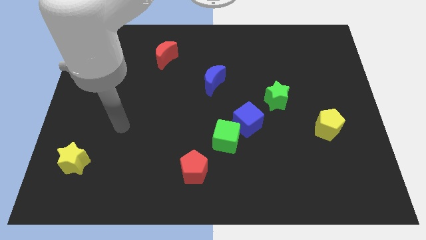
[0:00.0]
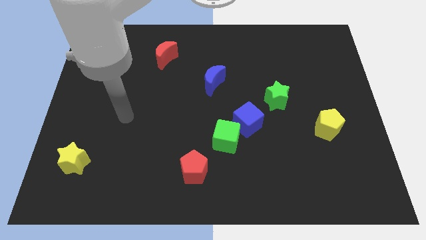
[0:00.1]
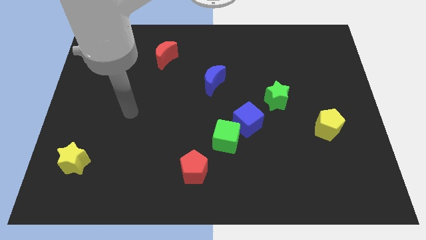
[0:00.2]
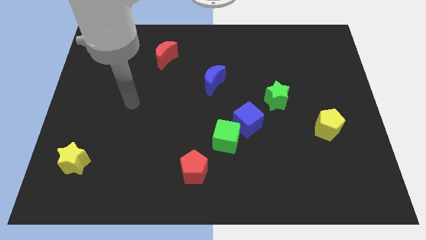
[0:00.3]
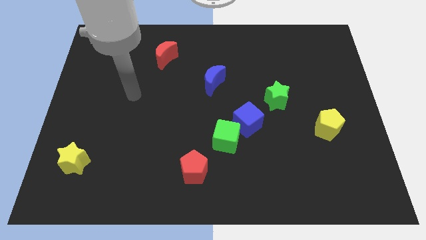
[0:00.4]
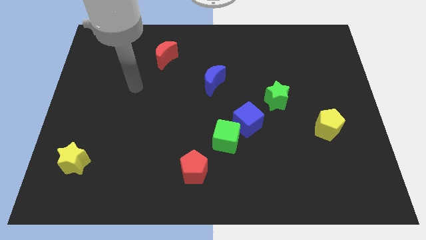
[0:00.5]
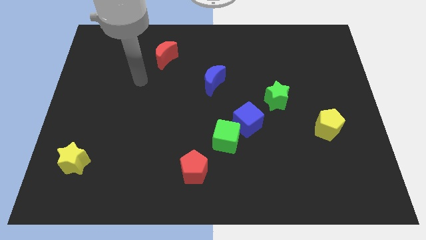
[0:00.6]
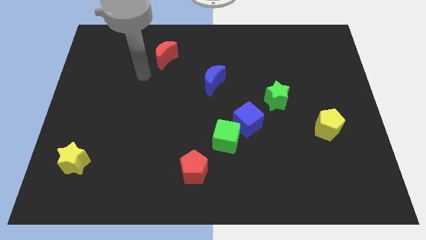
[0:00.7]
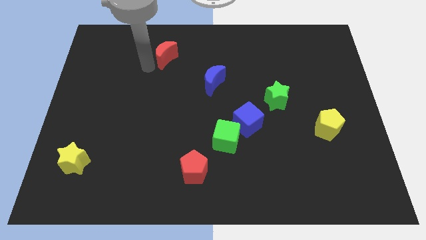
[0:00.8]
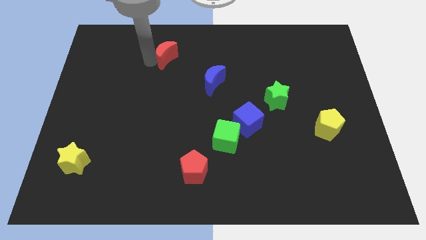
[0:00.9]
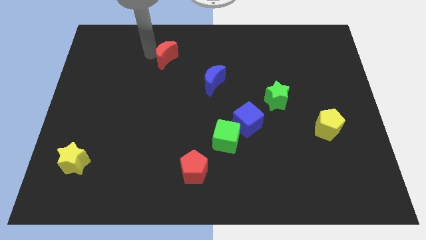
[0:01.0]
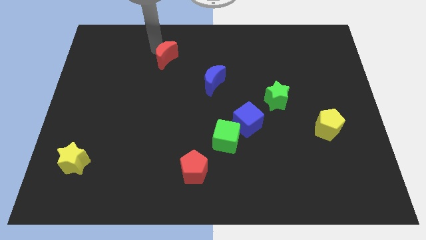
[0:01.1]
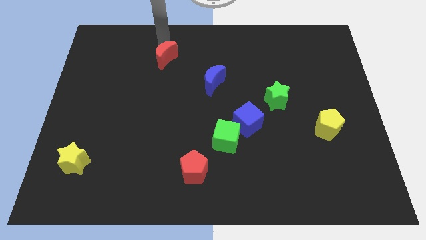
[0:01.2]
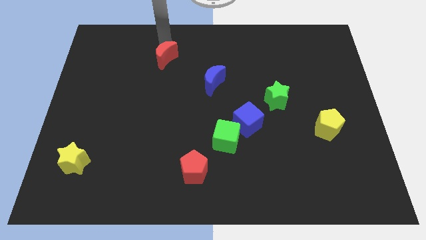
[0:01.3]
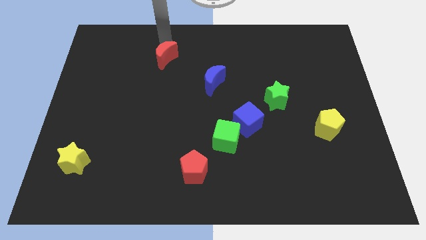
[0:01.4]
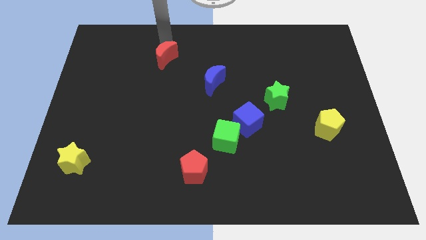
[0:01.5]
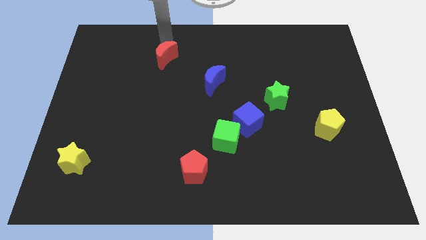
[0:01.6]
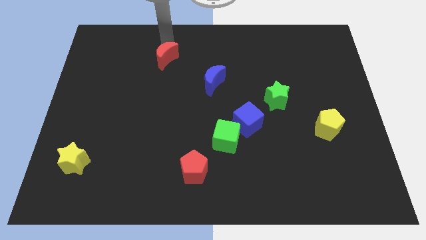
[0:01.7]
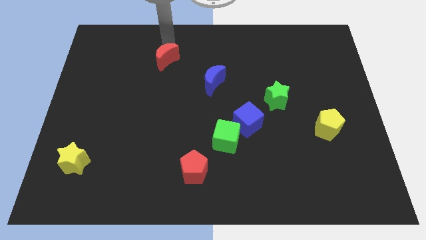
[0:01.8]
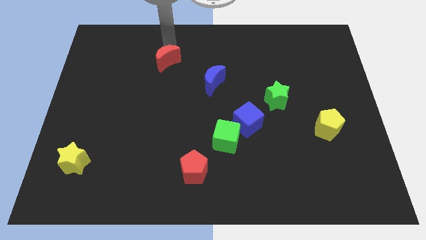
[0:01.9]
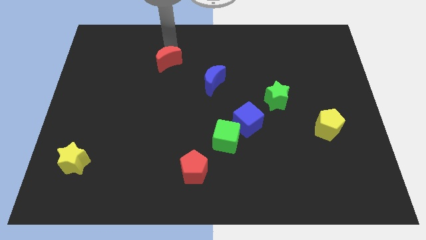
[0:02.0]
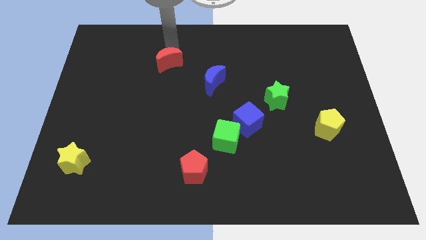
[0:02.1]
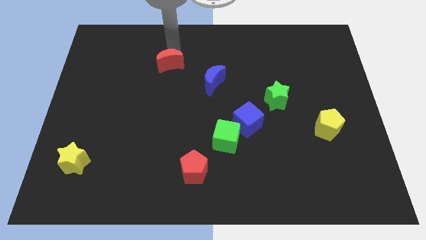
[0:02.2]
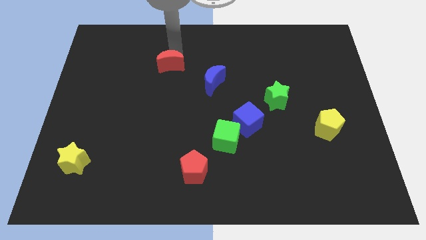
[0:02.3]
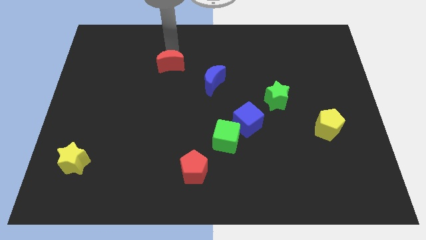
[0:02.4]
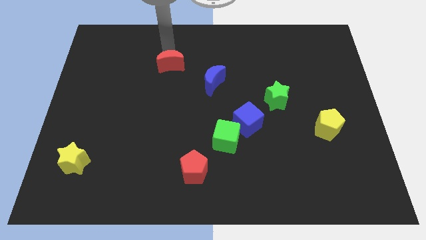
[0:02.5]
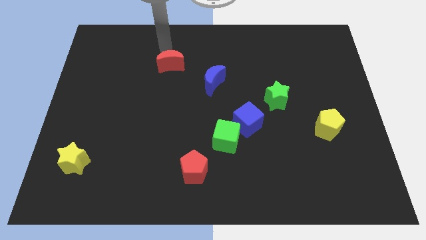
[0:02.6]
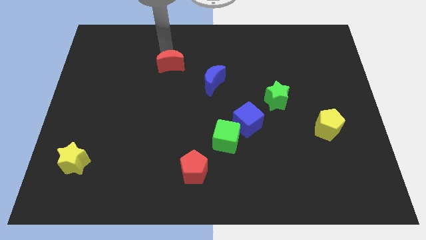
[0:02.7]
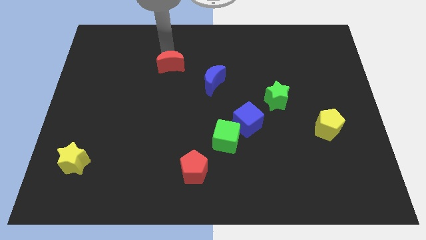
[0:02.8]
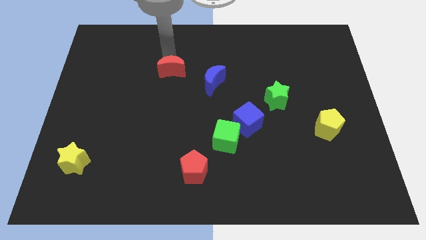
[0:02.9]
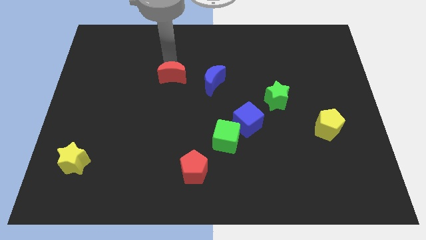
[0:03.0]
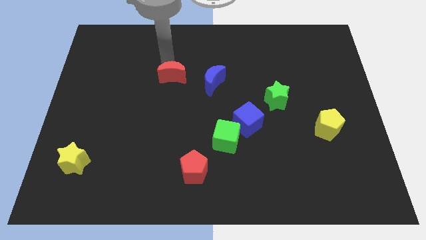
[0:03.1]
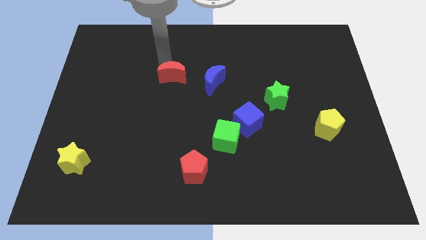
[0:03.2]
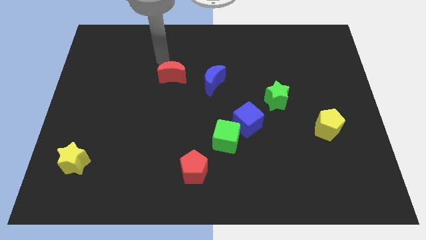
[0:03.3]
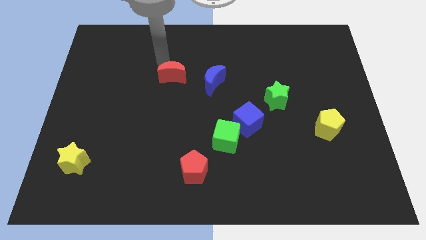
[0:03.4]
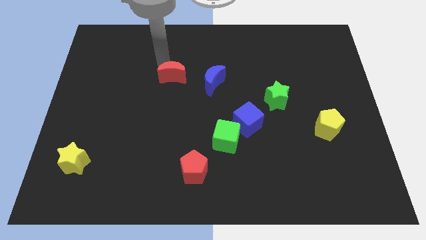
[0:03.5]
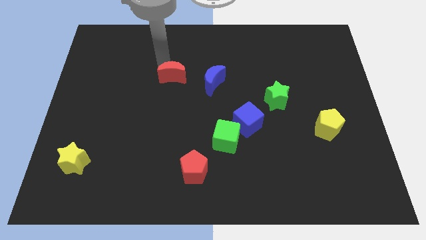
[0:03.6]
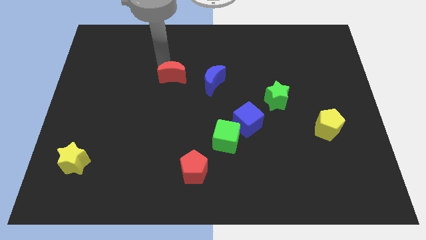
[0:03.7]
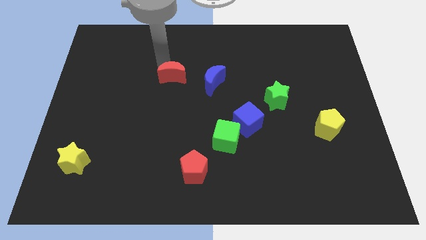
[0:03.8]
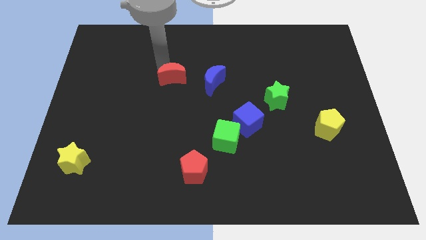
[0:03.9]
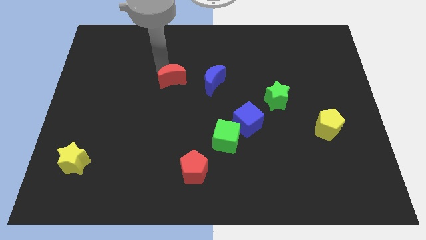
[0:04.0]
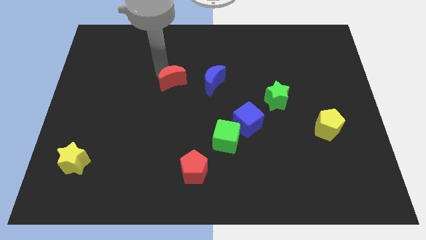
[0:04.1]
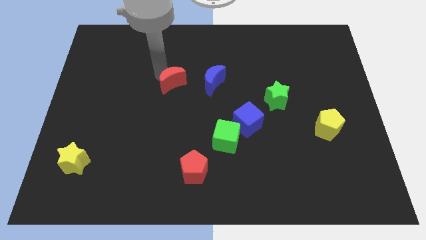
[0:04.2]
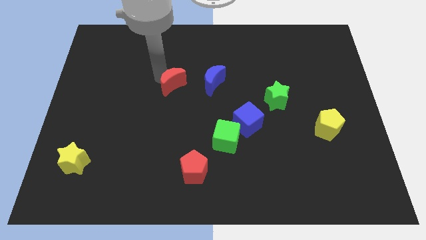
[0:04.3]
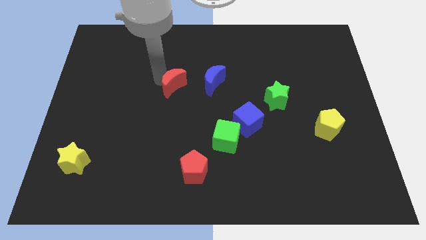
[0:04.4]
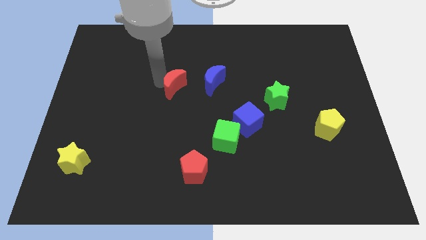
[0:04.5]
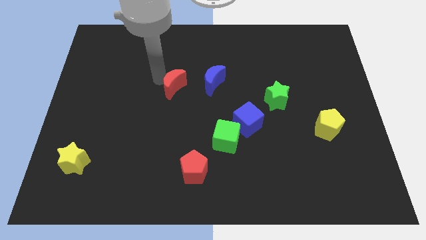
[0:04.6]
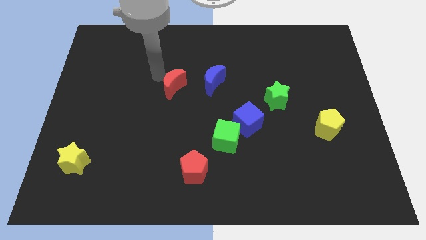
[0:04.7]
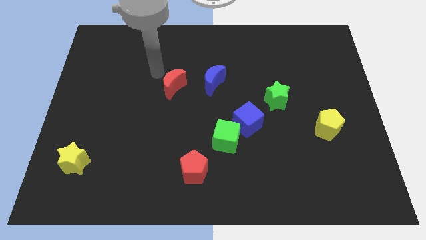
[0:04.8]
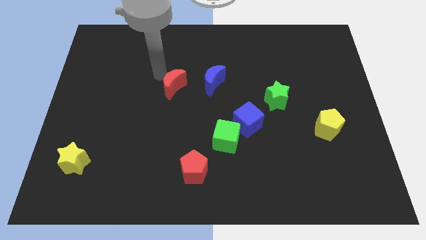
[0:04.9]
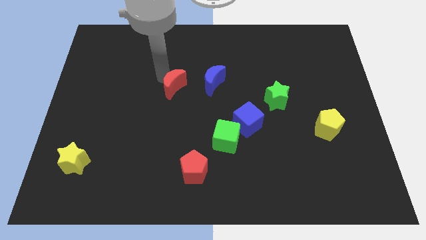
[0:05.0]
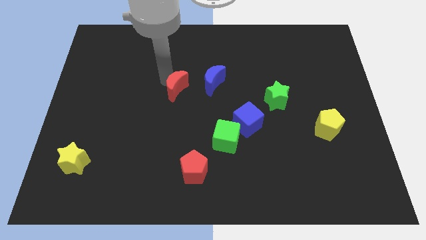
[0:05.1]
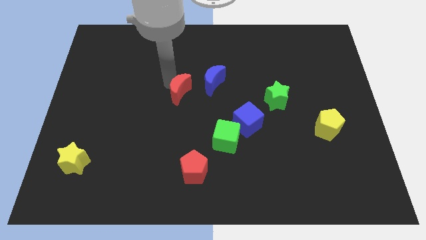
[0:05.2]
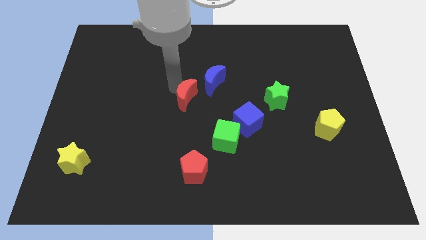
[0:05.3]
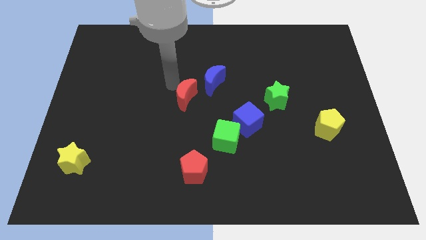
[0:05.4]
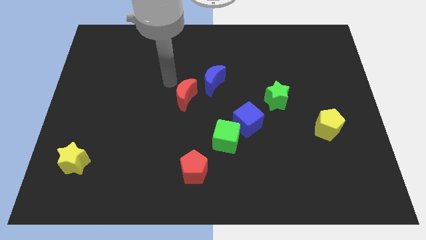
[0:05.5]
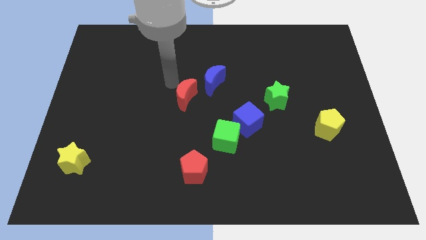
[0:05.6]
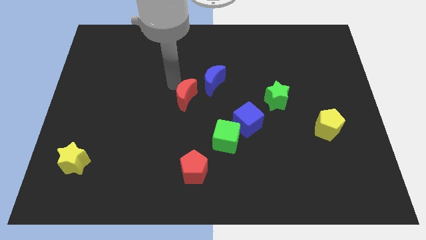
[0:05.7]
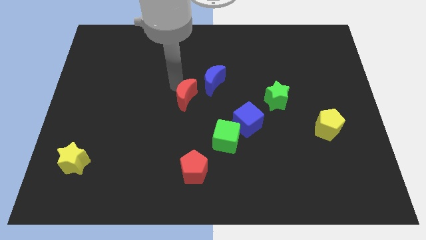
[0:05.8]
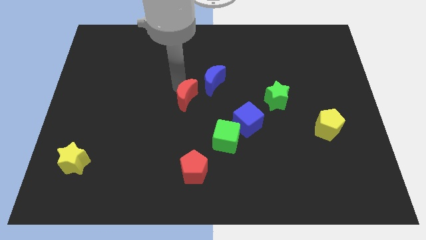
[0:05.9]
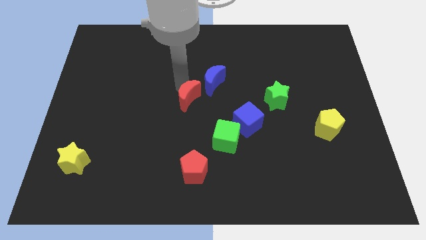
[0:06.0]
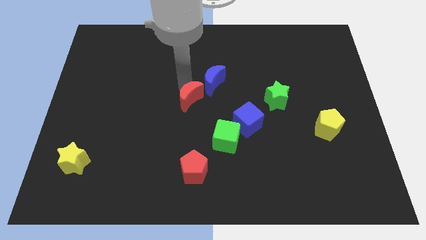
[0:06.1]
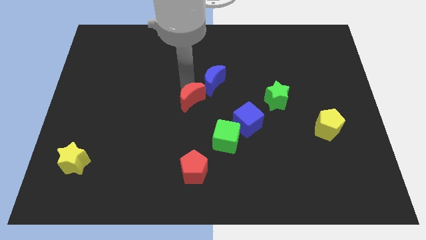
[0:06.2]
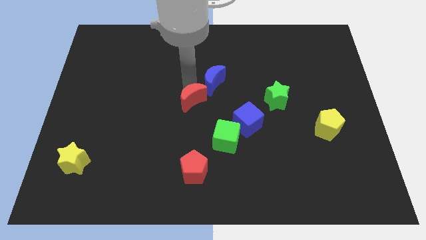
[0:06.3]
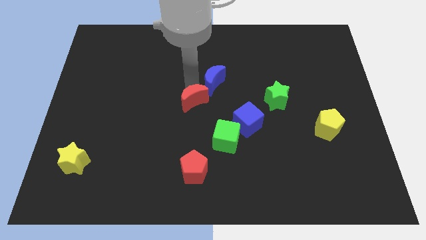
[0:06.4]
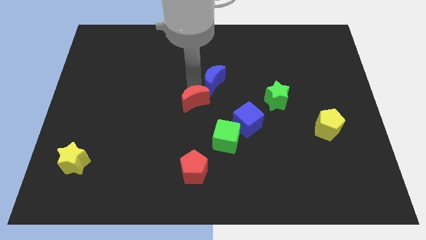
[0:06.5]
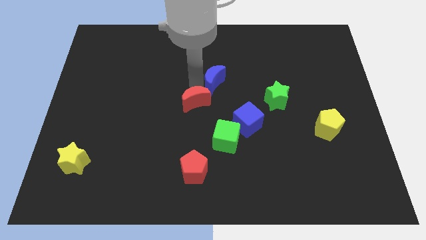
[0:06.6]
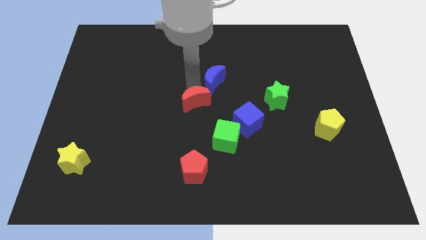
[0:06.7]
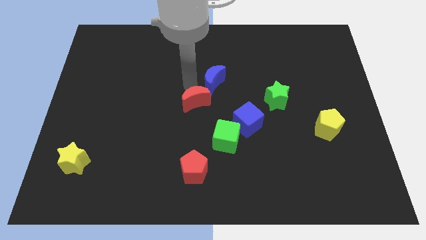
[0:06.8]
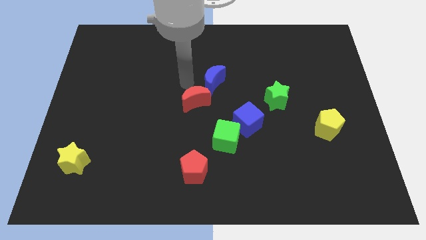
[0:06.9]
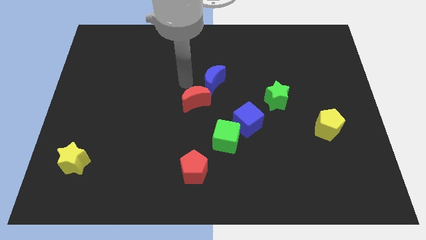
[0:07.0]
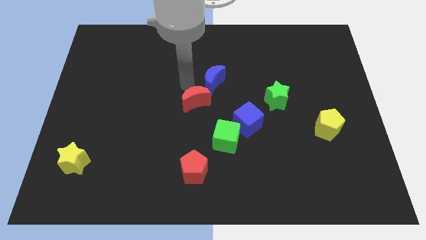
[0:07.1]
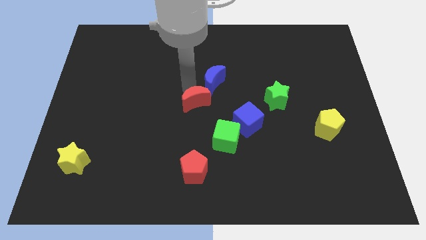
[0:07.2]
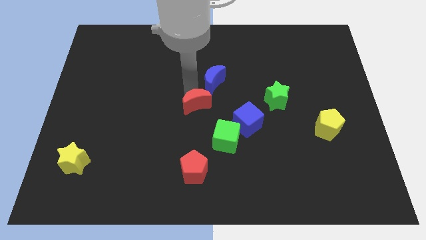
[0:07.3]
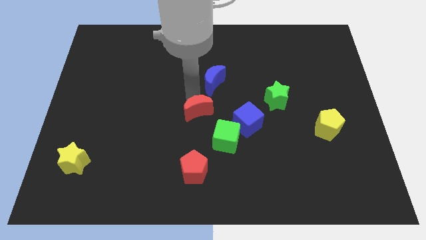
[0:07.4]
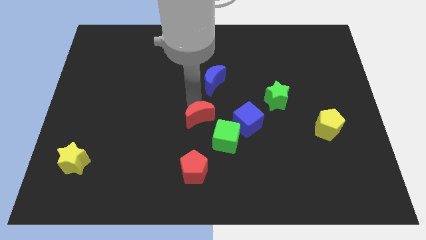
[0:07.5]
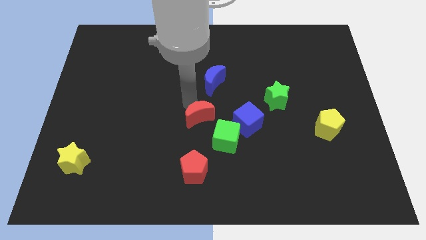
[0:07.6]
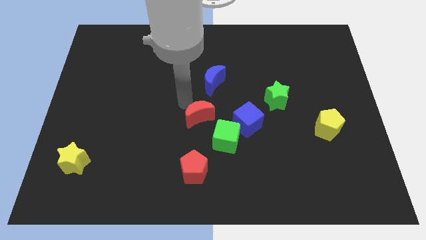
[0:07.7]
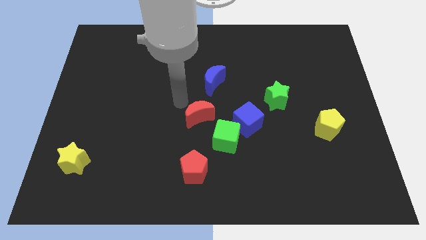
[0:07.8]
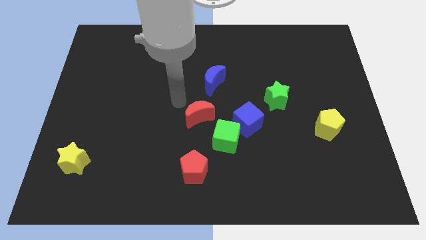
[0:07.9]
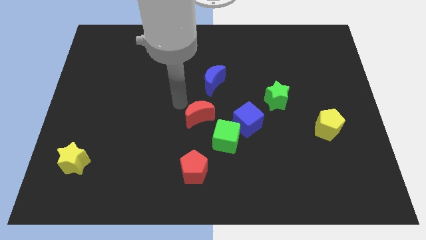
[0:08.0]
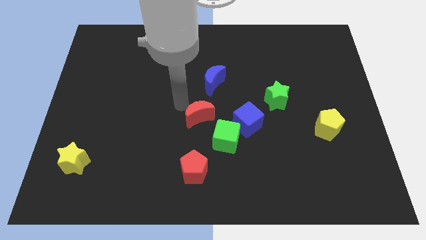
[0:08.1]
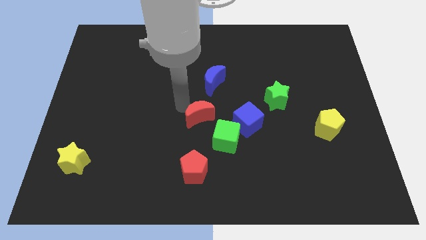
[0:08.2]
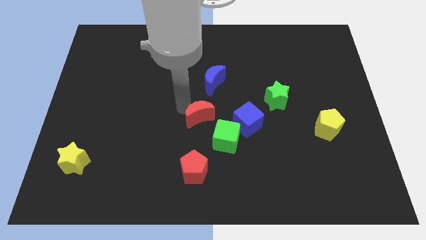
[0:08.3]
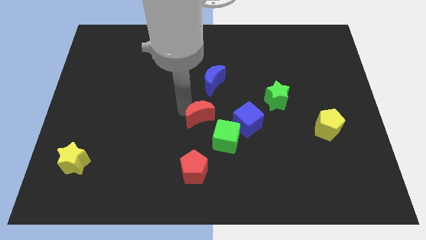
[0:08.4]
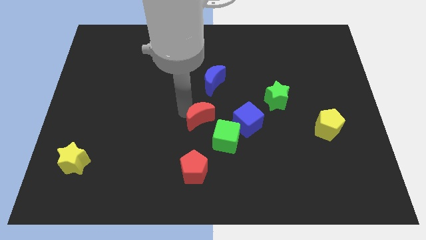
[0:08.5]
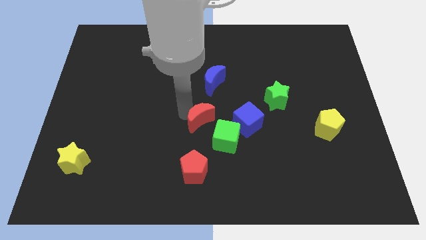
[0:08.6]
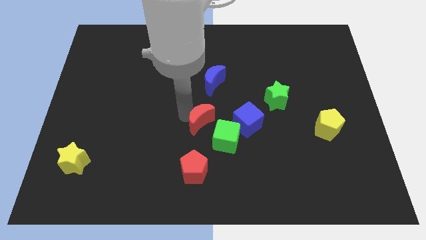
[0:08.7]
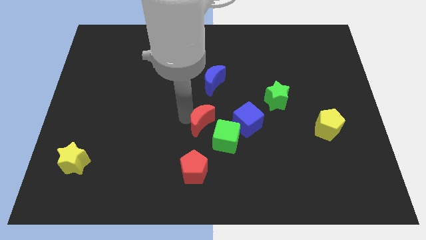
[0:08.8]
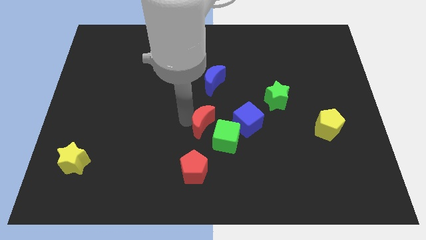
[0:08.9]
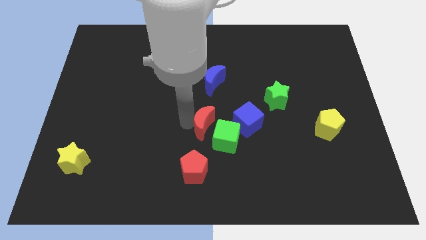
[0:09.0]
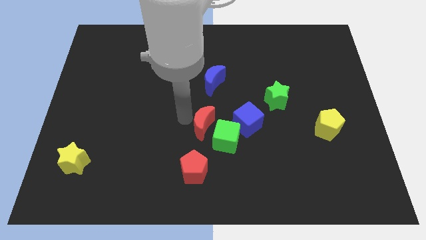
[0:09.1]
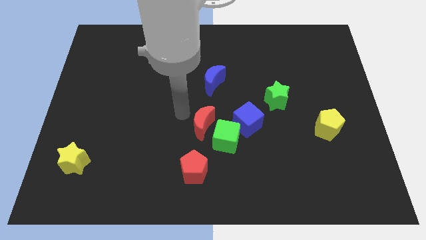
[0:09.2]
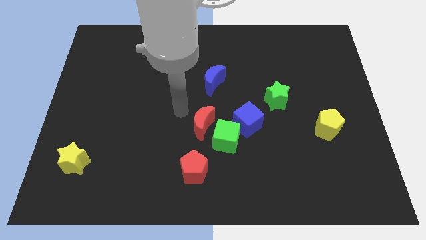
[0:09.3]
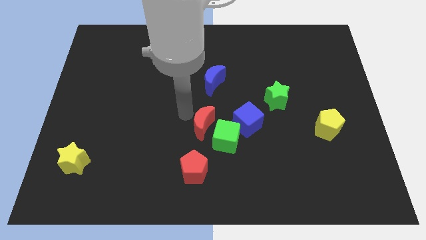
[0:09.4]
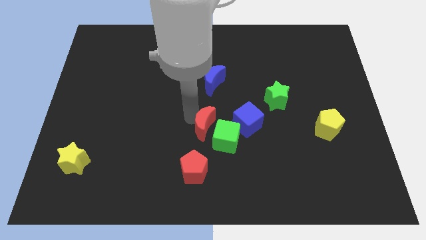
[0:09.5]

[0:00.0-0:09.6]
slide the red moon next to the green cube
